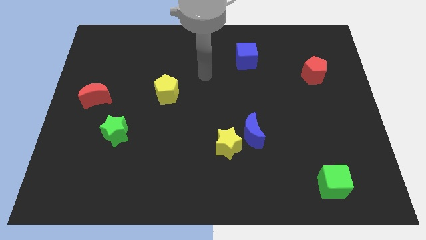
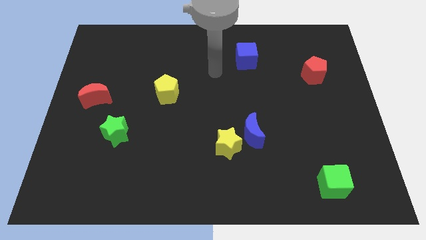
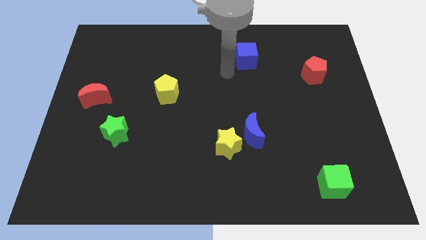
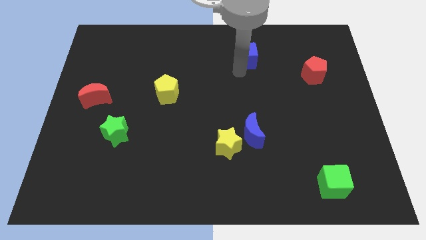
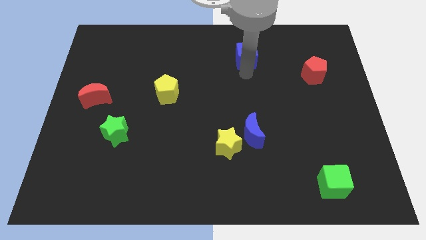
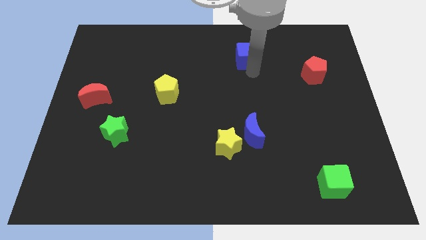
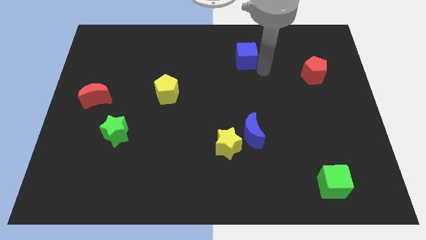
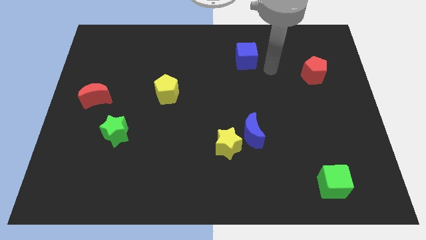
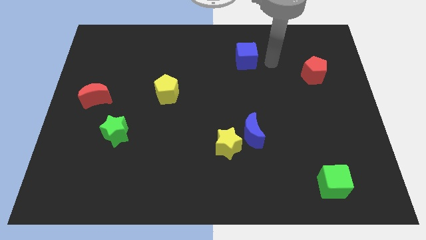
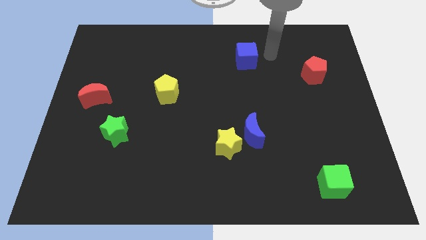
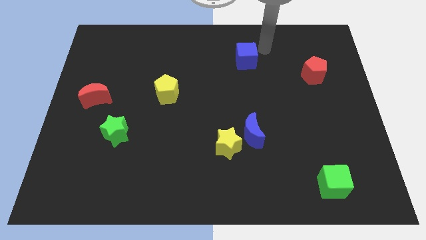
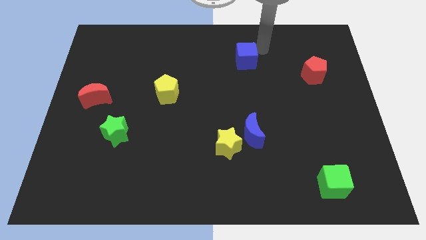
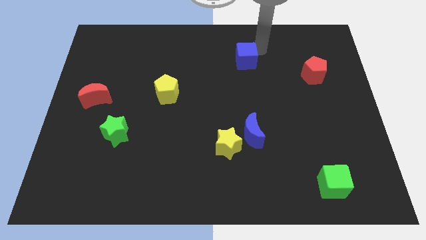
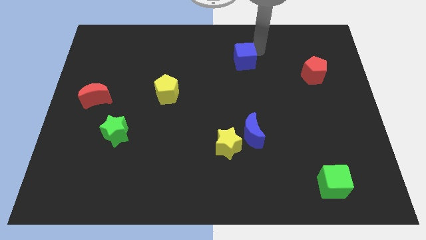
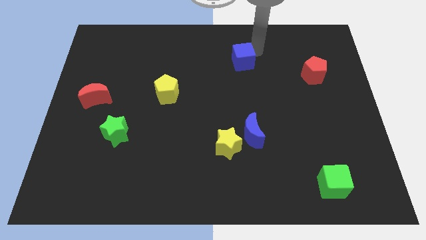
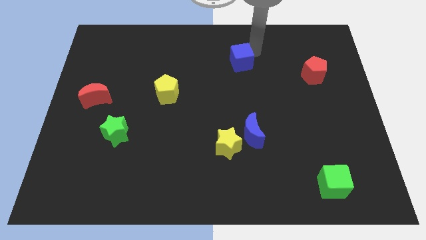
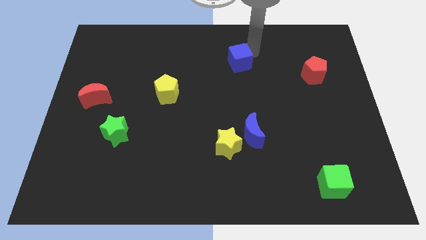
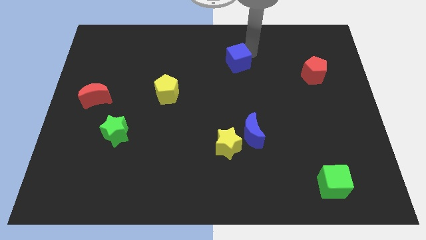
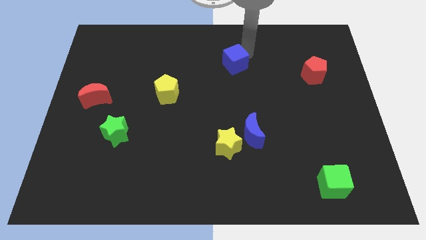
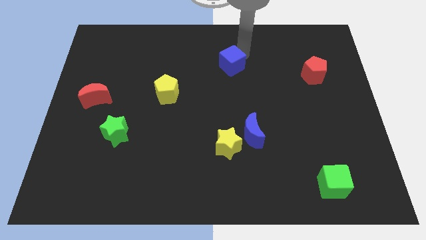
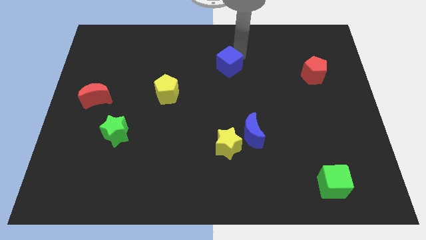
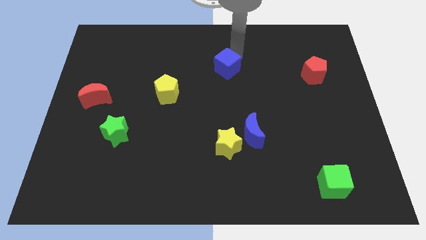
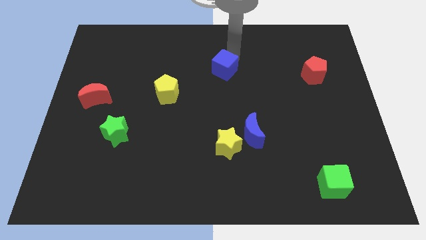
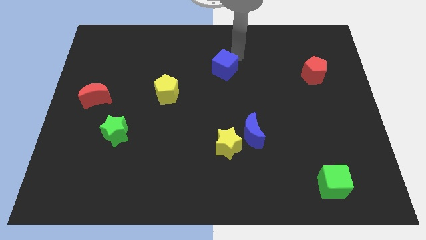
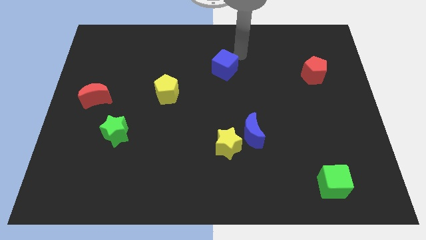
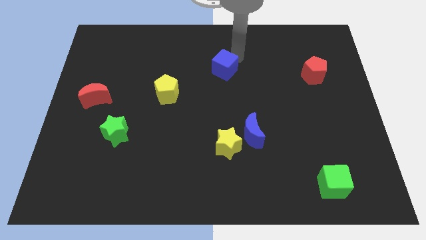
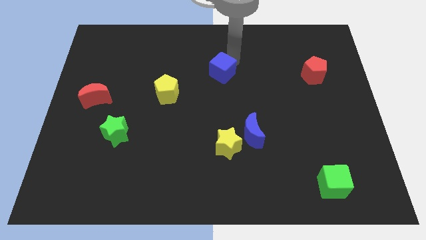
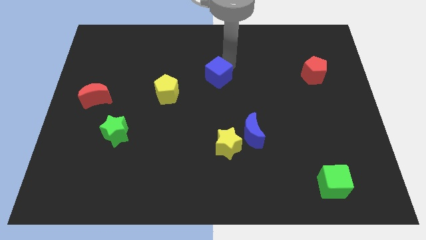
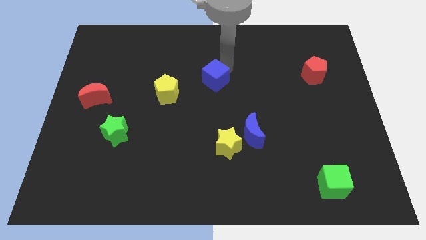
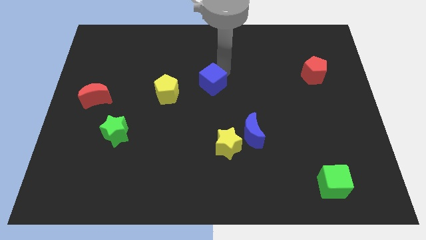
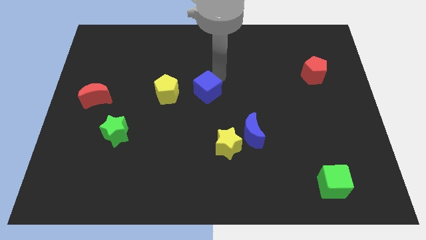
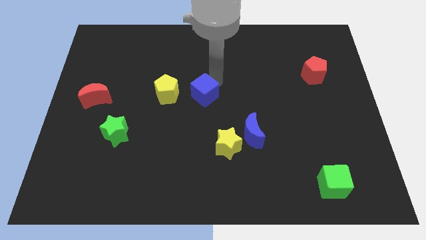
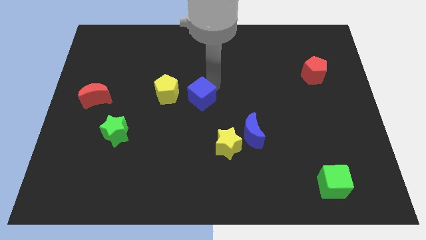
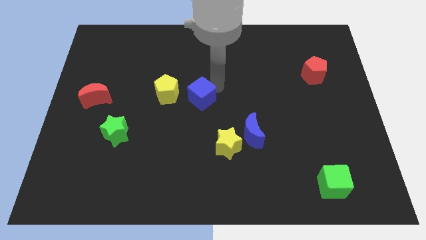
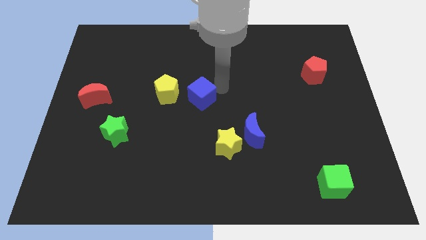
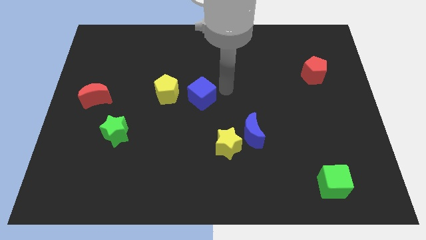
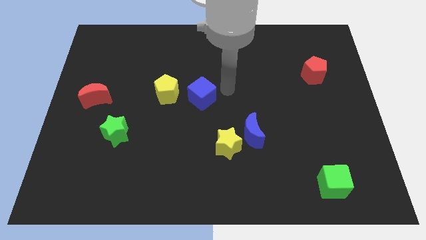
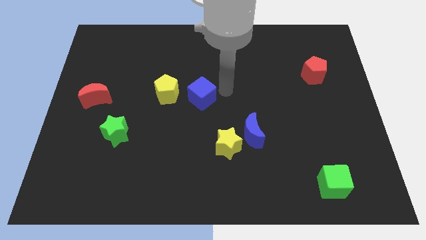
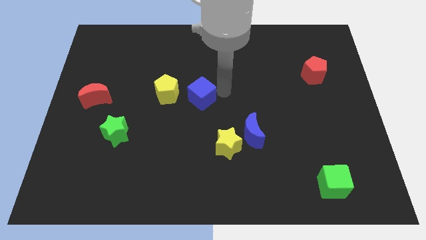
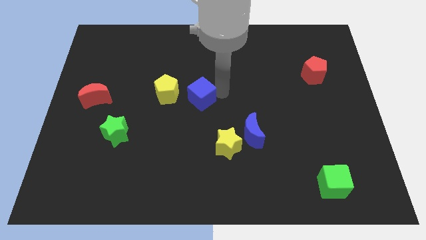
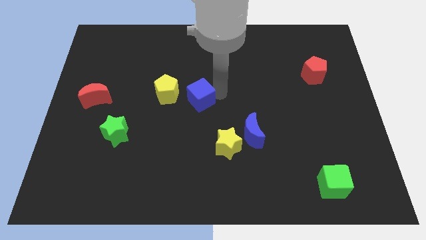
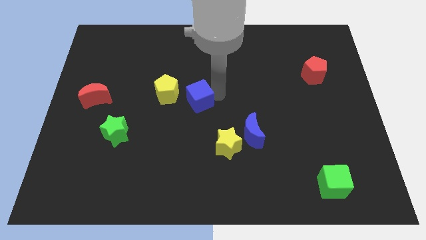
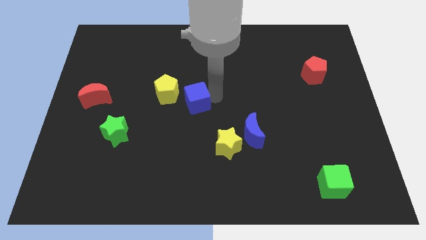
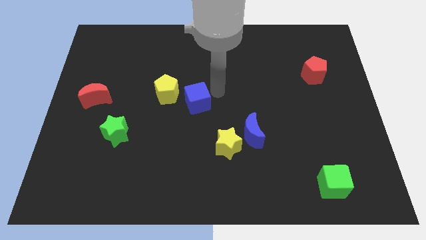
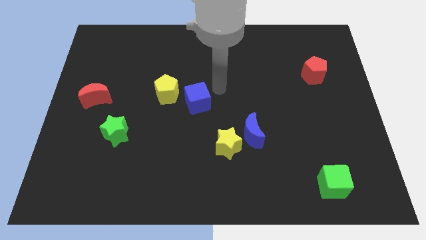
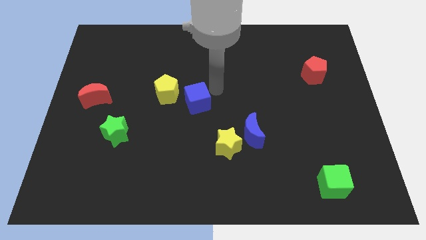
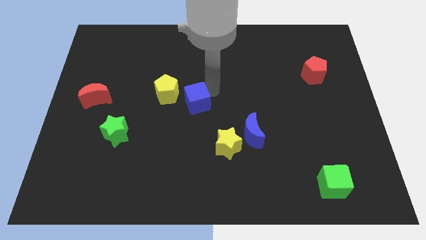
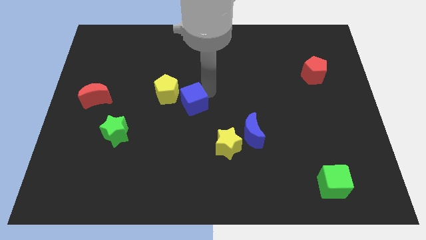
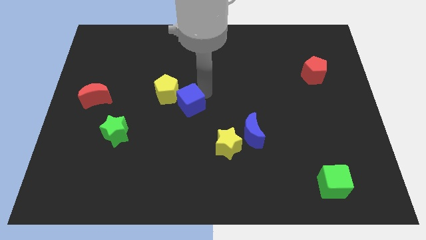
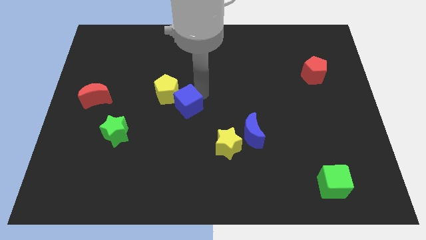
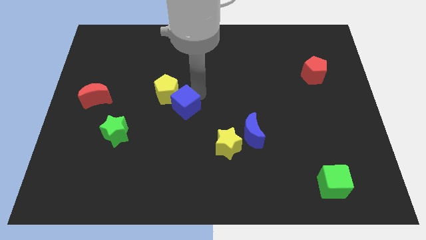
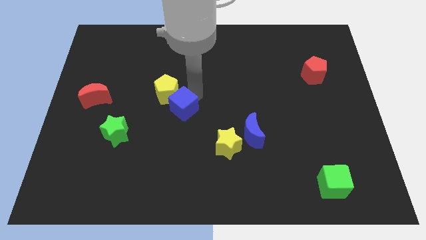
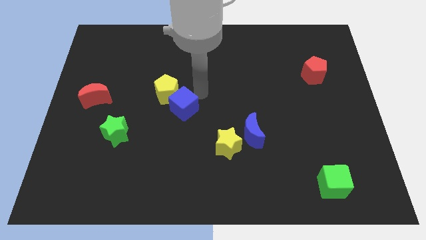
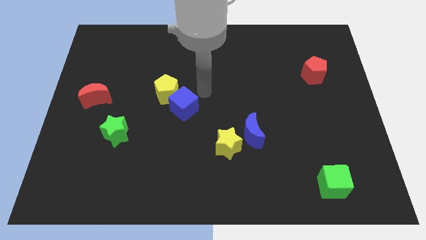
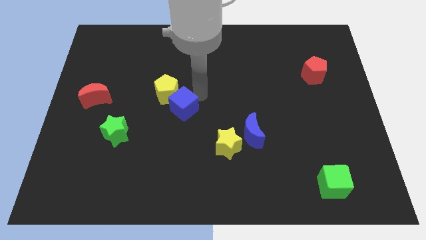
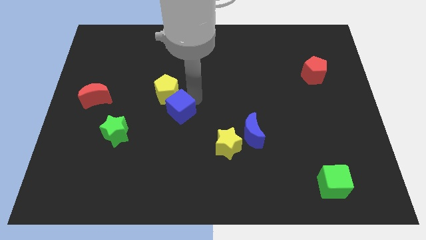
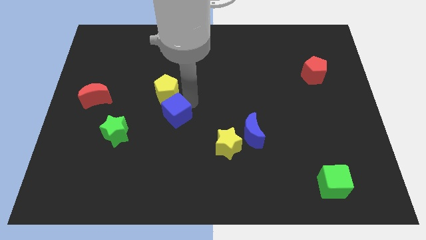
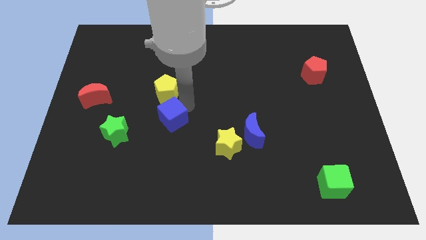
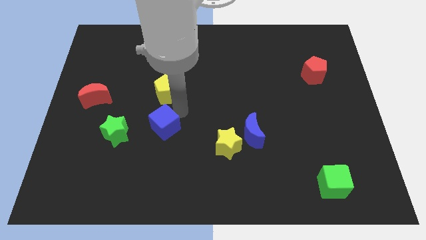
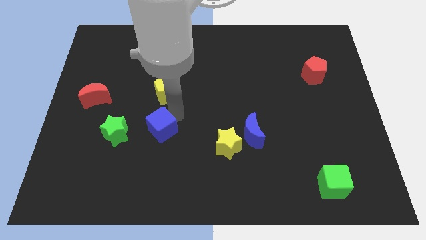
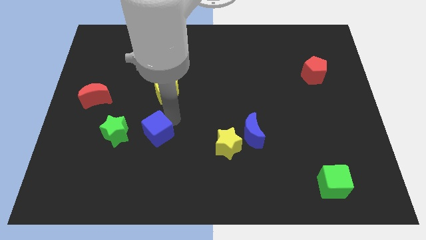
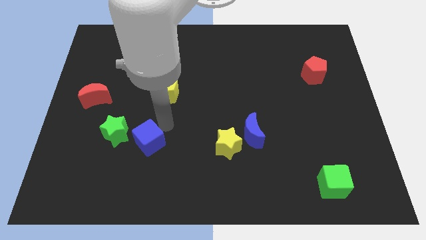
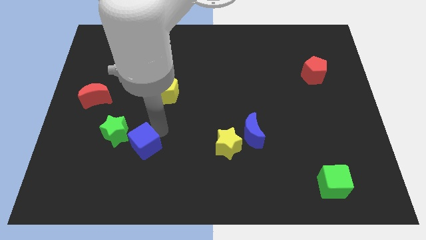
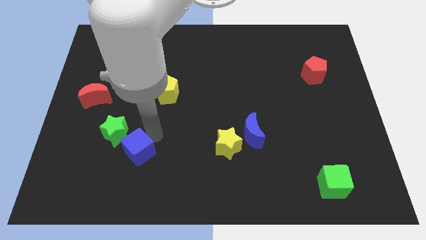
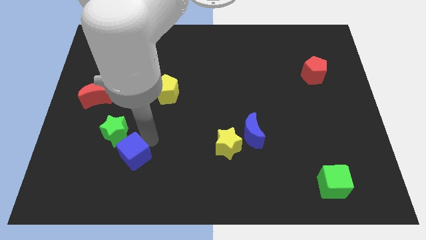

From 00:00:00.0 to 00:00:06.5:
move the blue cube to the bottom of the green star

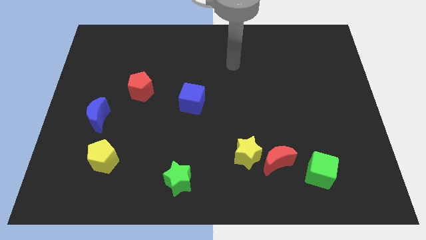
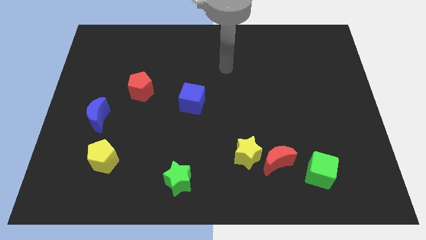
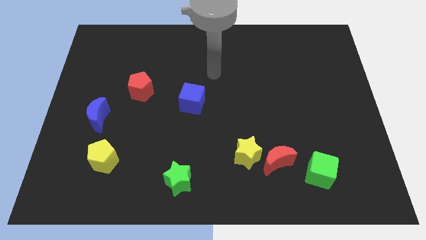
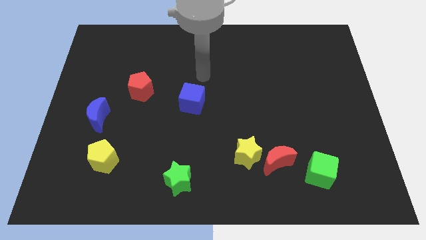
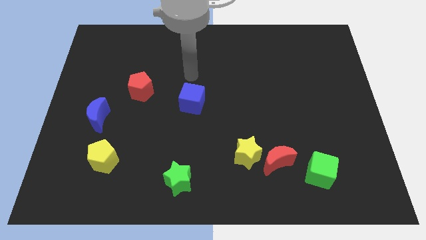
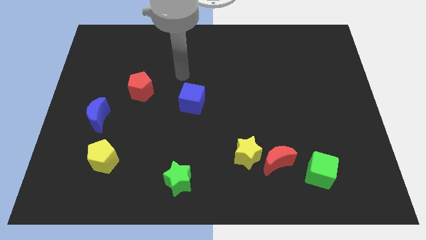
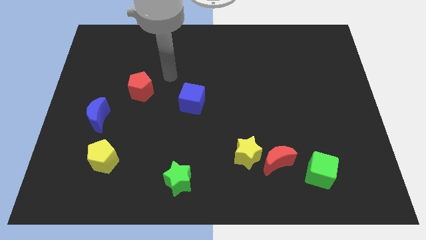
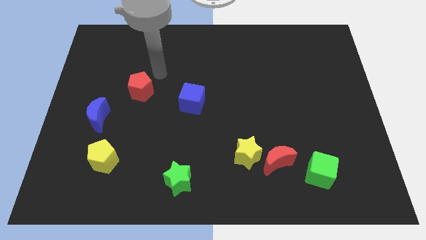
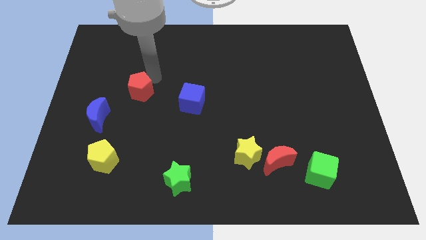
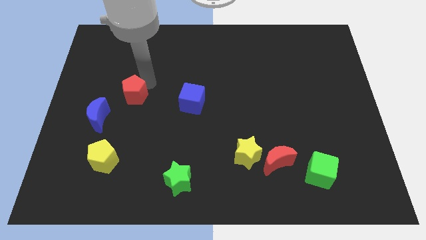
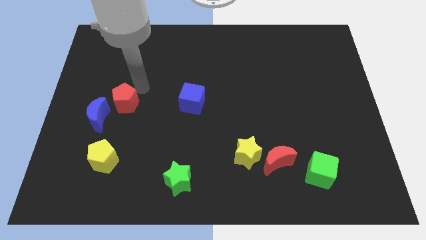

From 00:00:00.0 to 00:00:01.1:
slide the red pentagon above the yellow pentagon

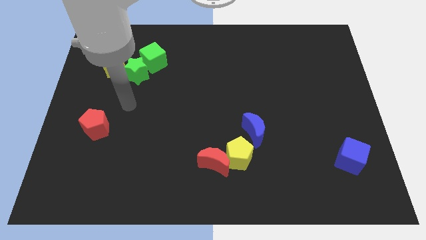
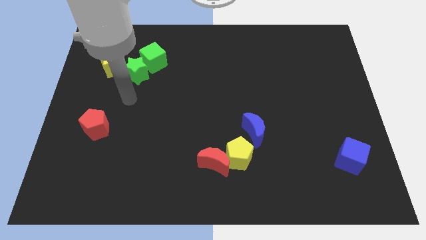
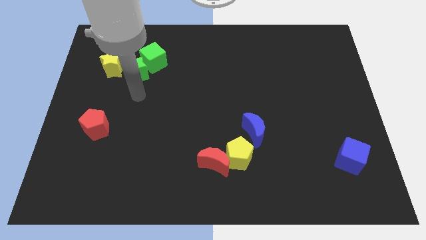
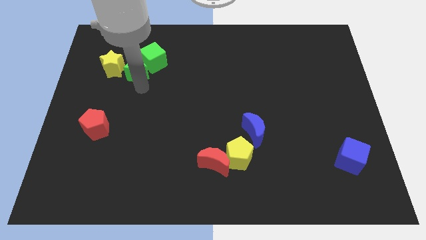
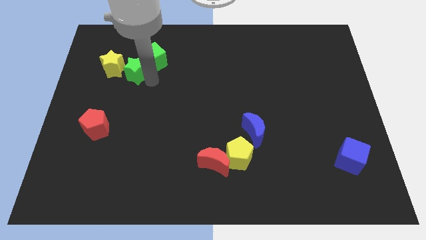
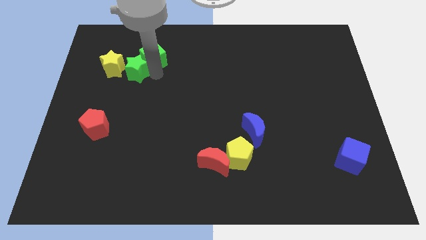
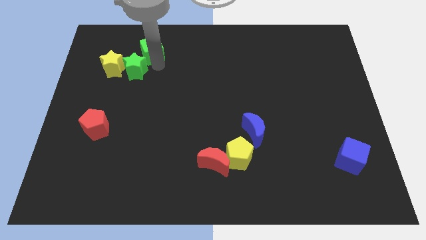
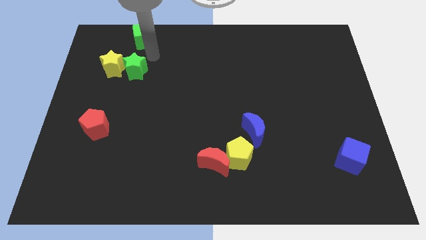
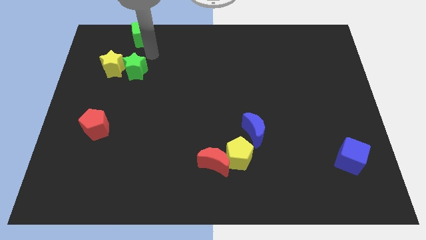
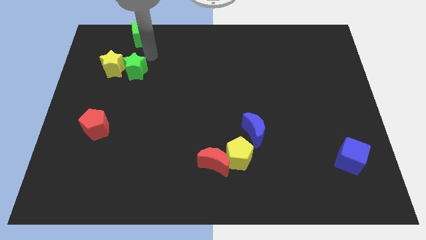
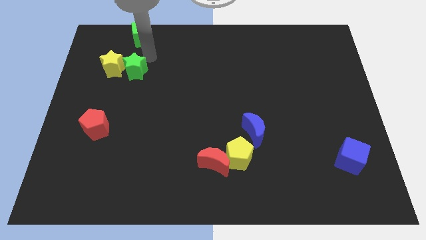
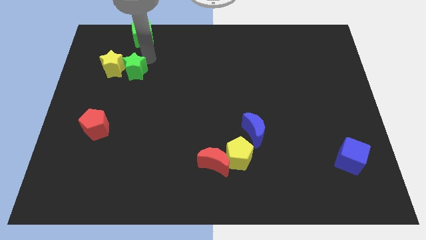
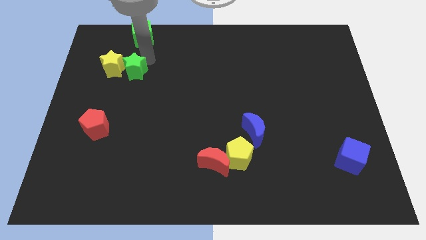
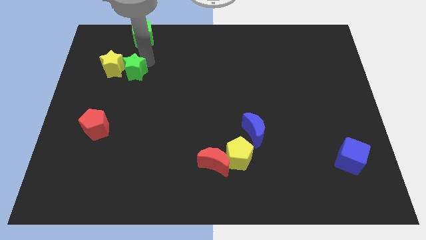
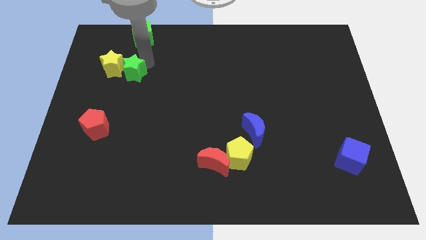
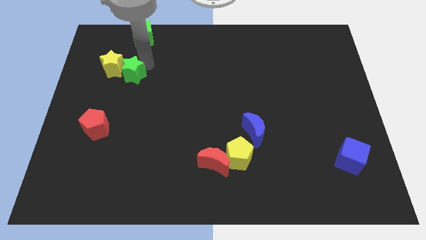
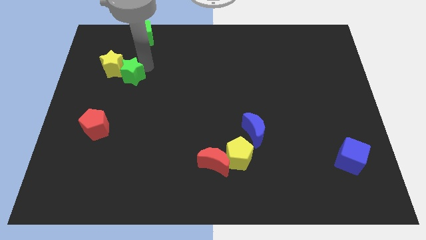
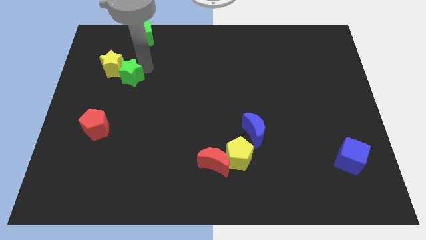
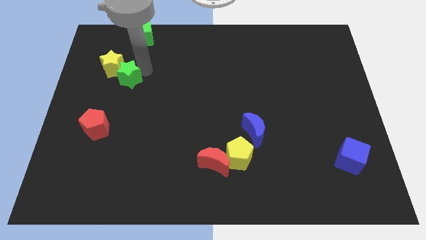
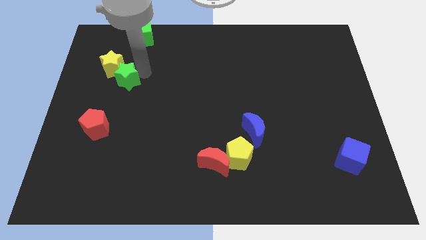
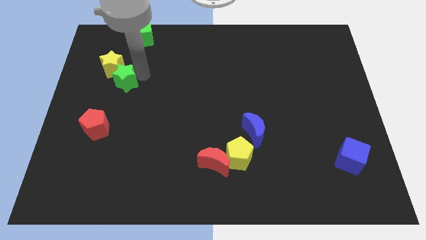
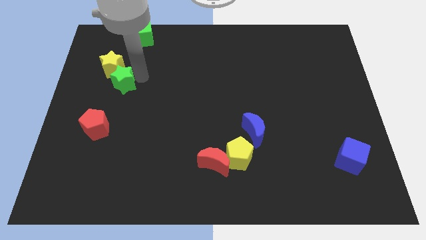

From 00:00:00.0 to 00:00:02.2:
move the green star to the top side of the red pentagon
